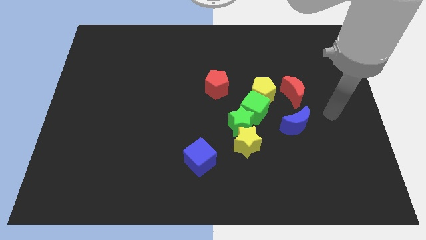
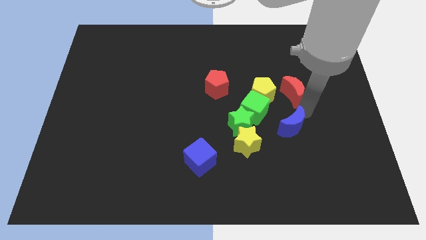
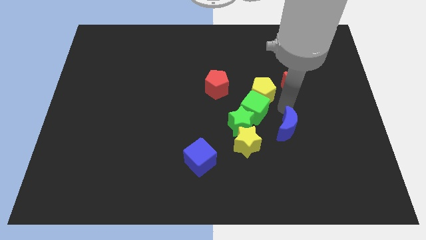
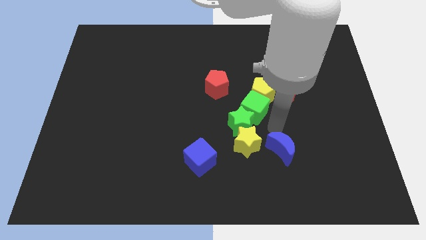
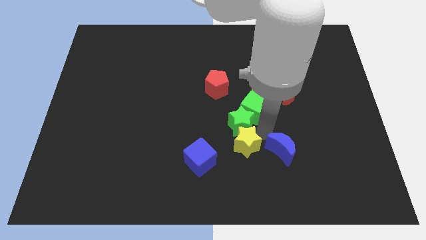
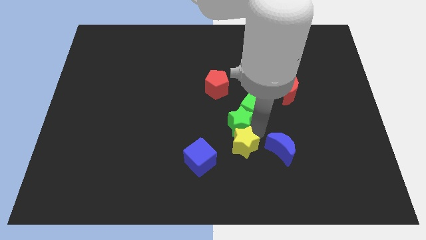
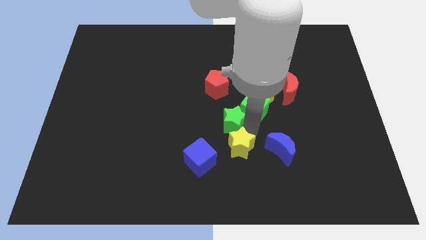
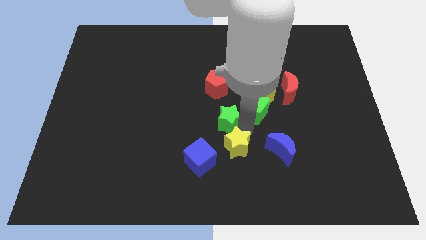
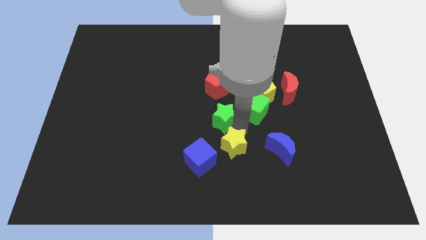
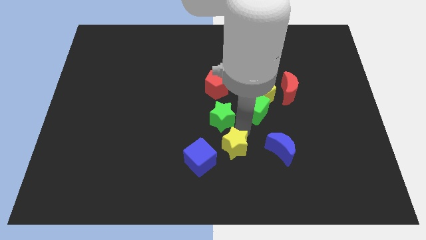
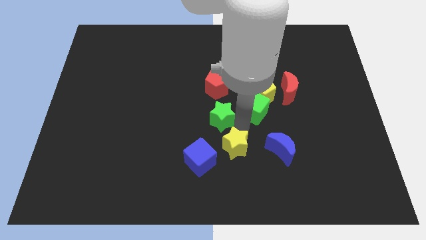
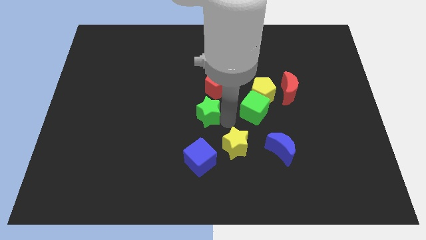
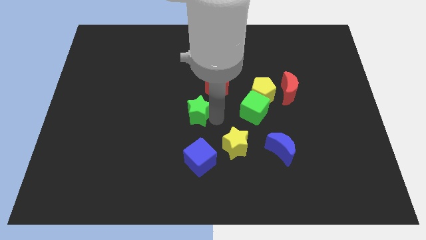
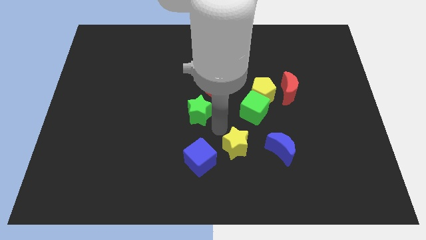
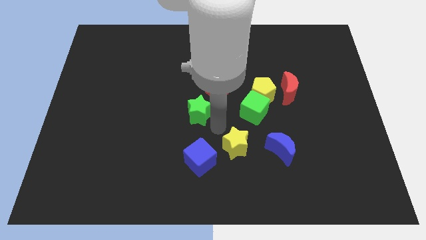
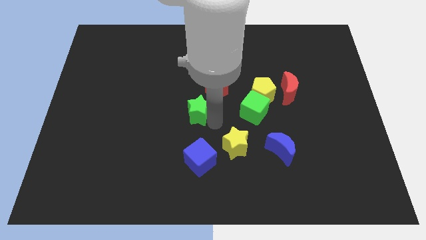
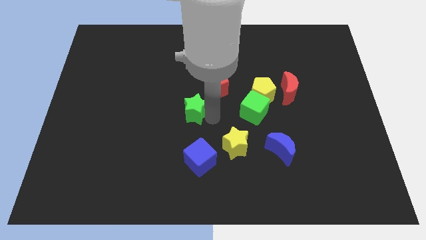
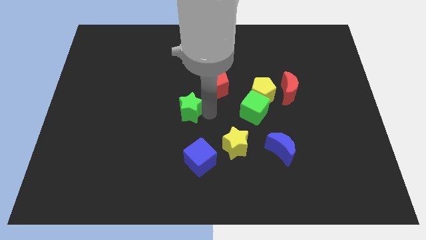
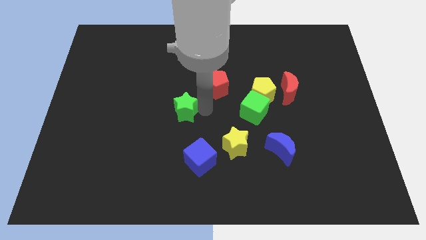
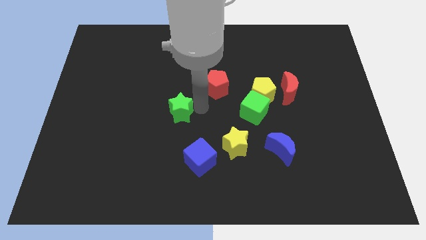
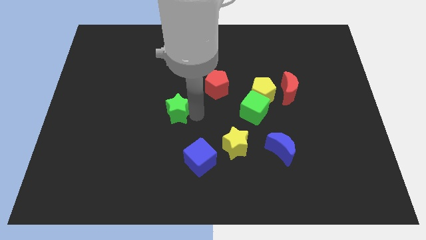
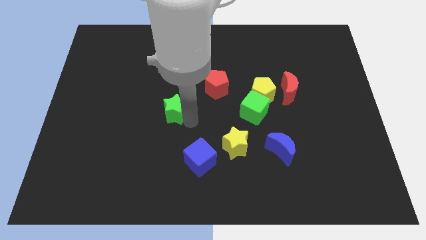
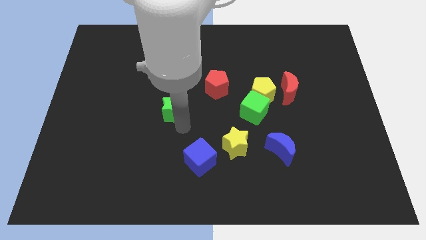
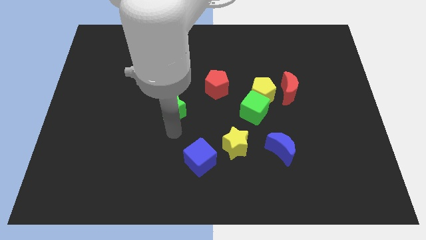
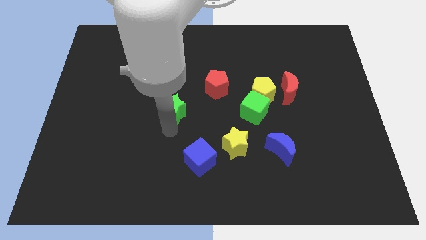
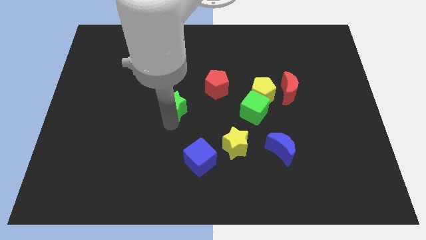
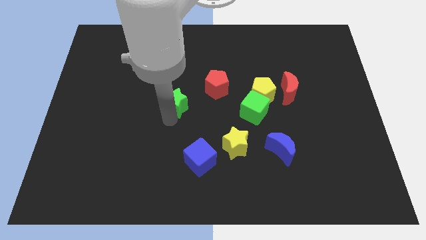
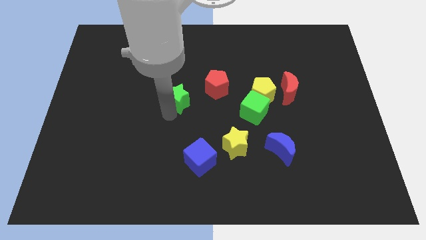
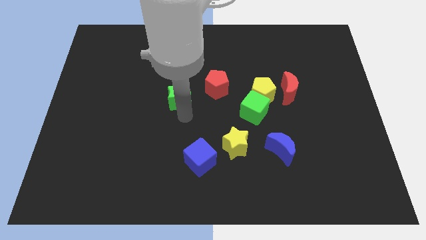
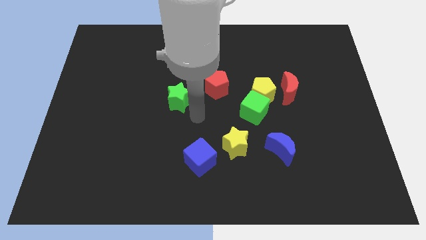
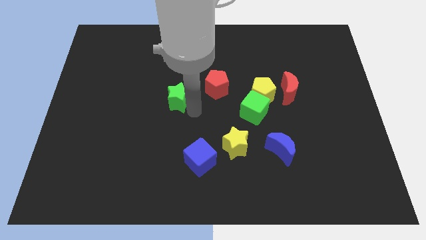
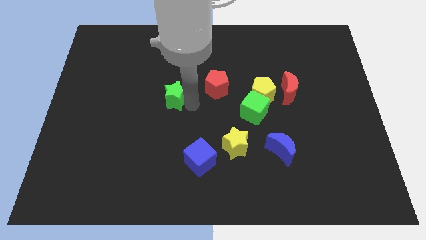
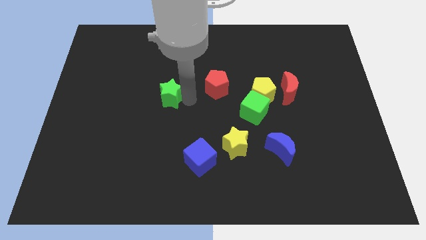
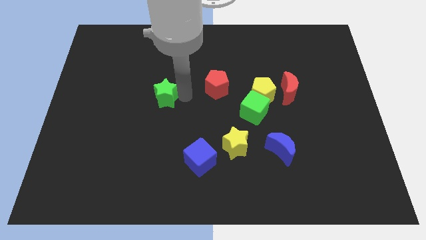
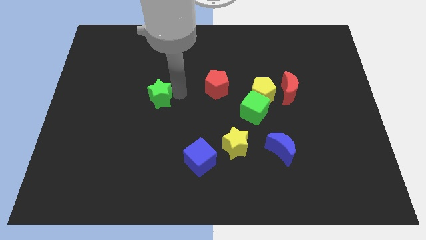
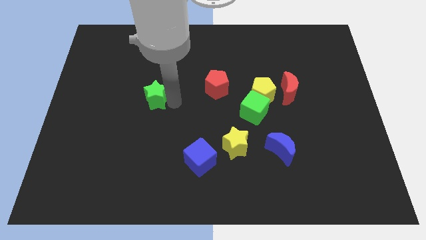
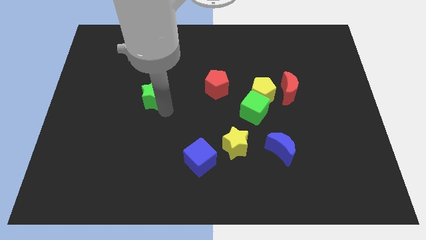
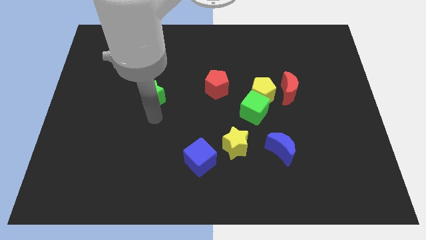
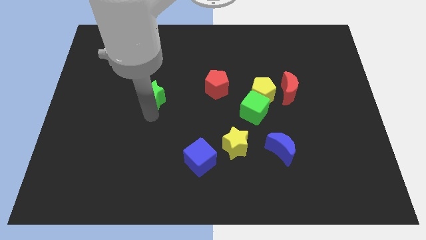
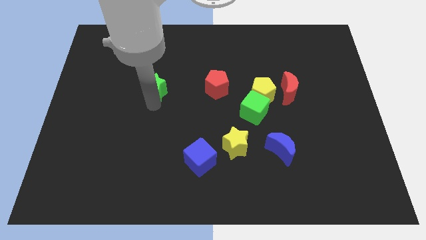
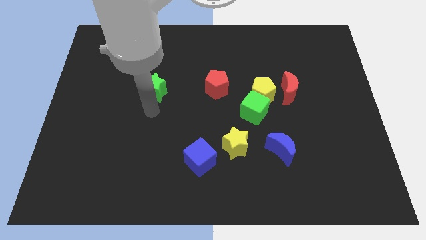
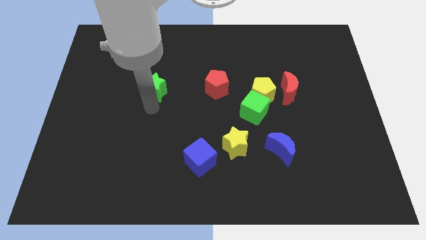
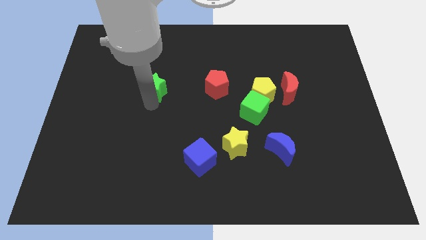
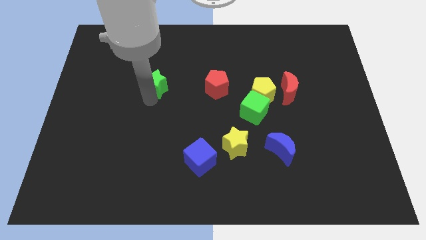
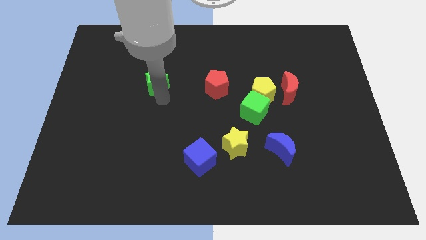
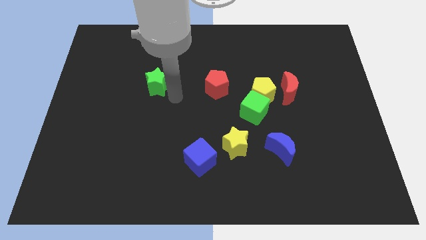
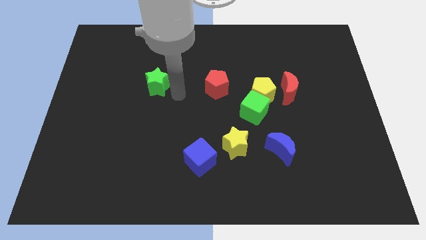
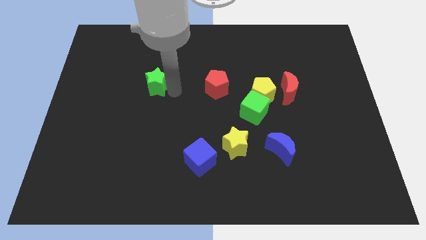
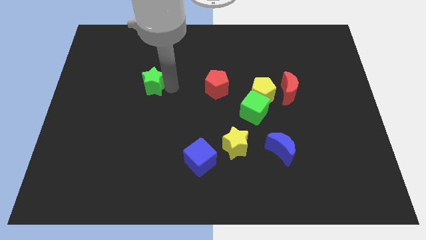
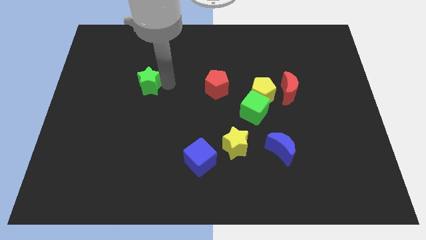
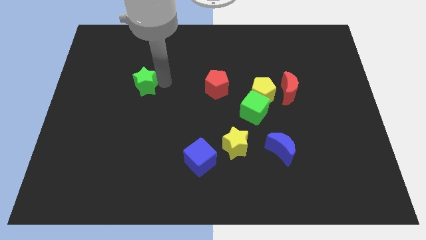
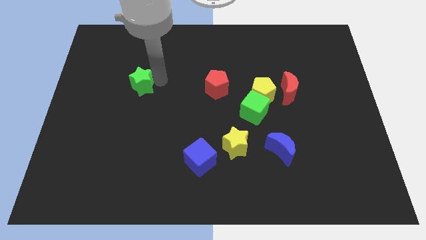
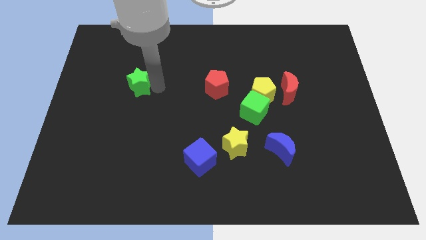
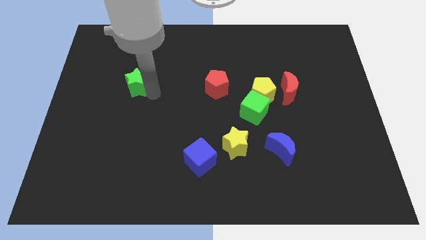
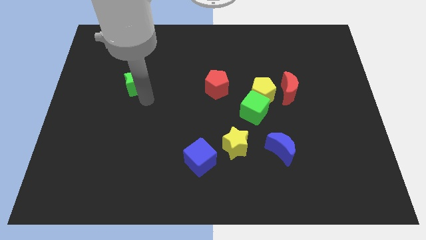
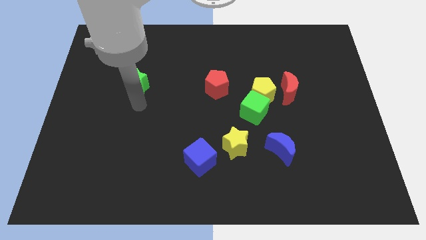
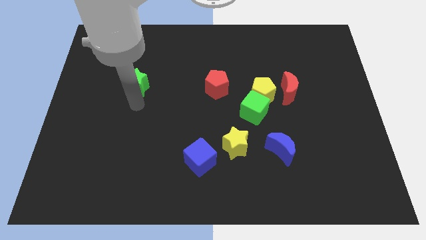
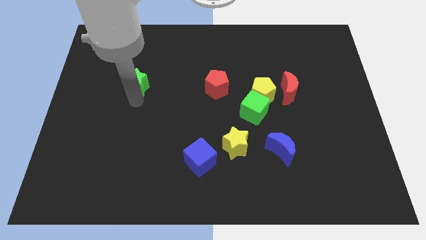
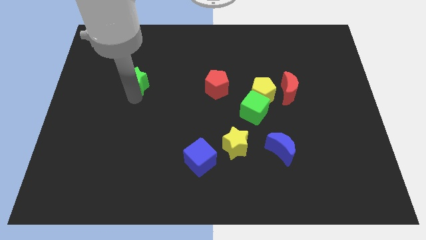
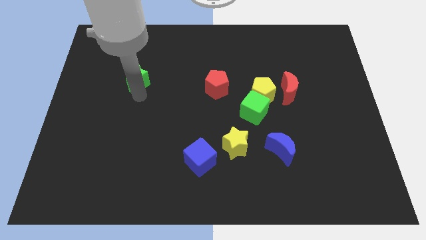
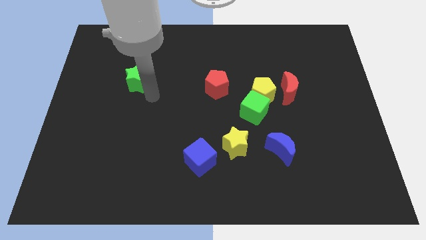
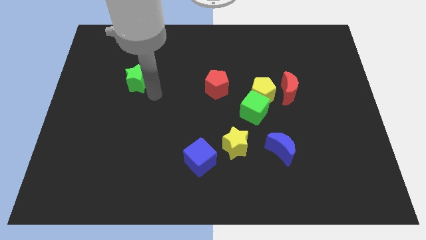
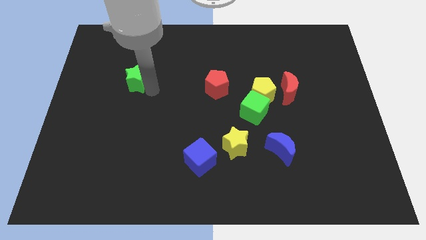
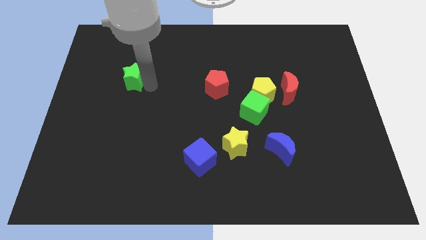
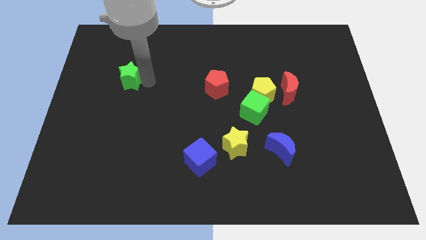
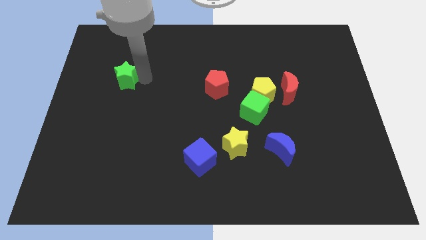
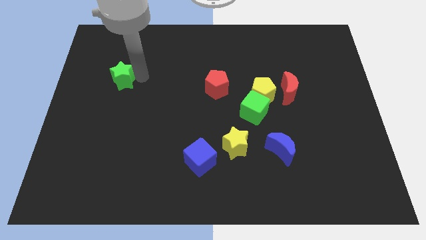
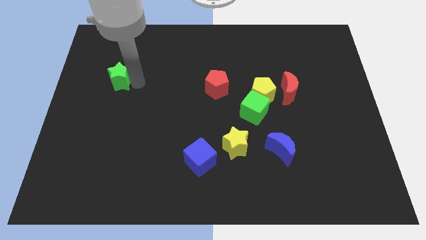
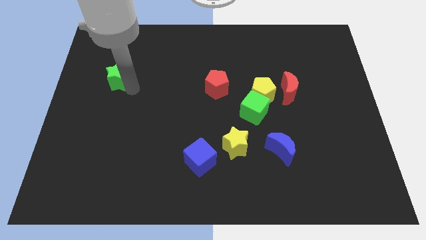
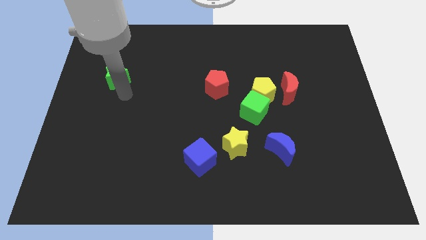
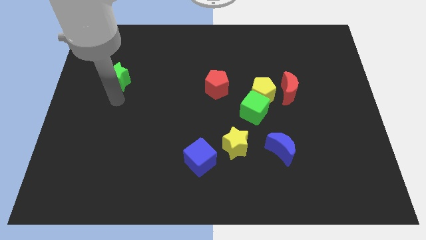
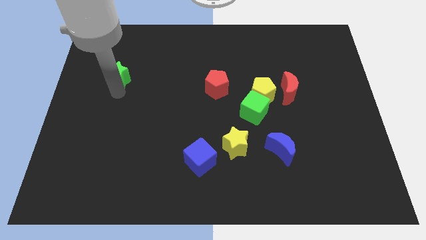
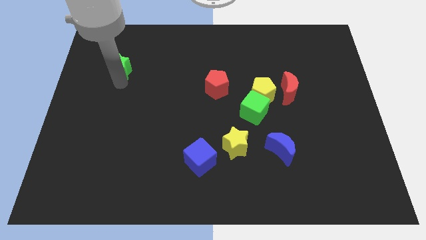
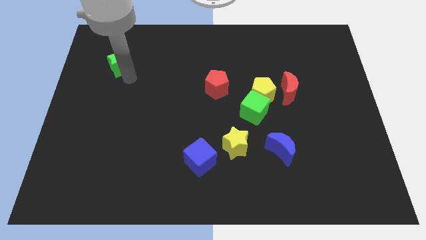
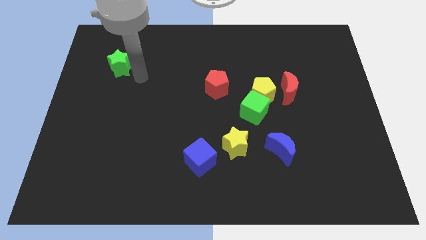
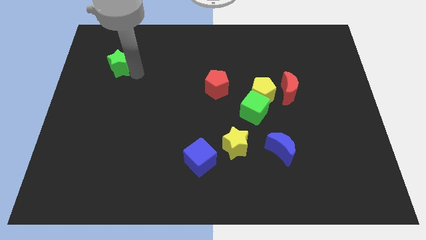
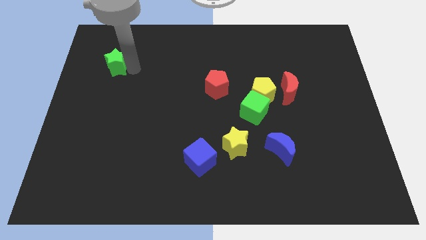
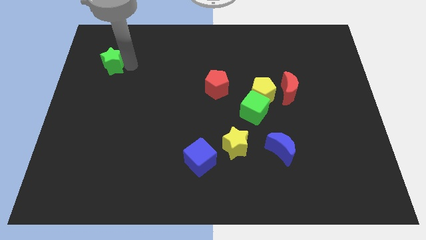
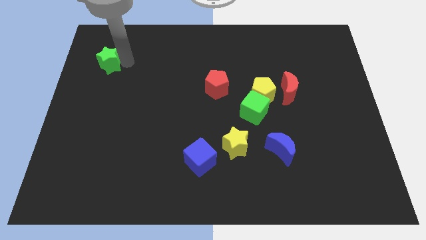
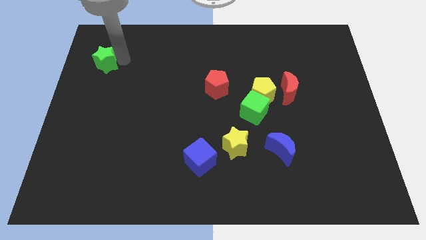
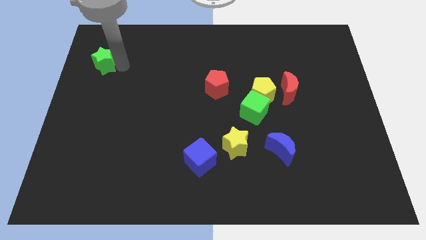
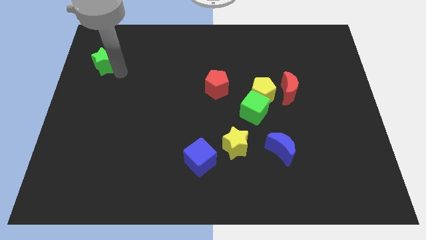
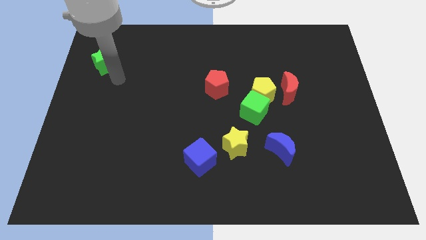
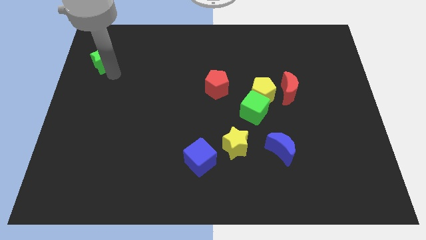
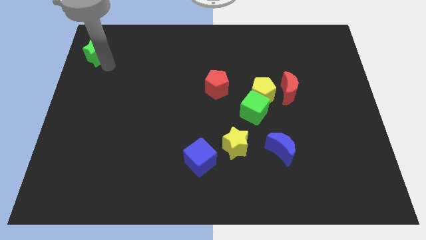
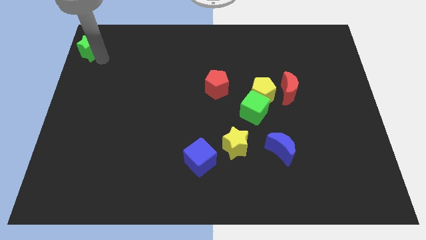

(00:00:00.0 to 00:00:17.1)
move the green star to the top left of the board
